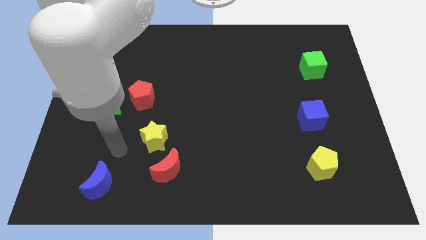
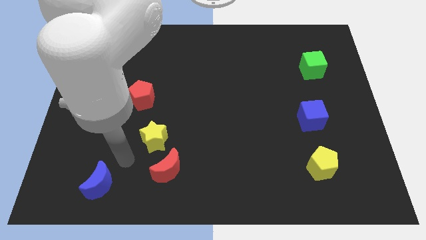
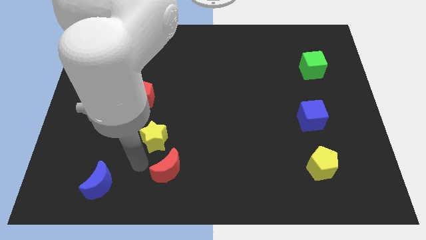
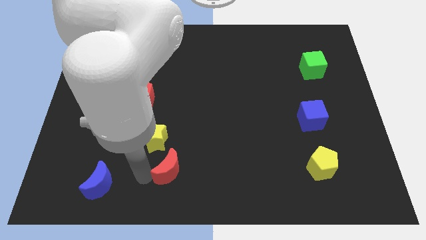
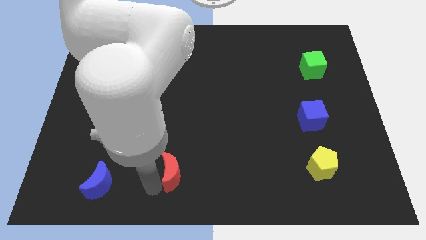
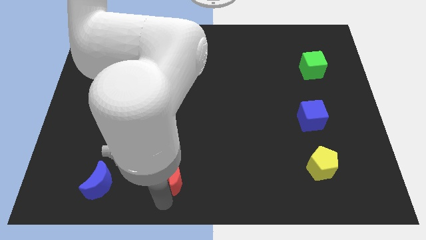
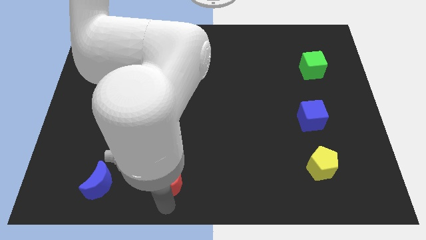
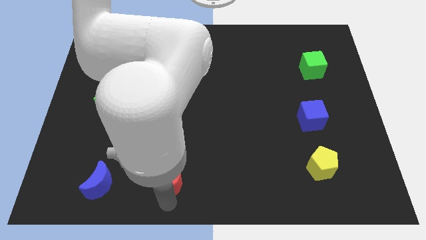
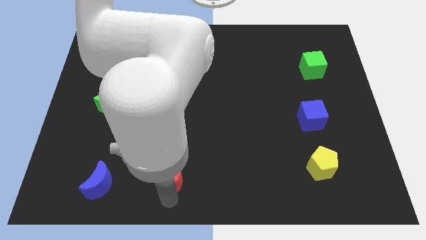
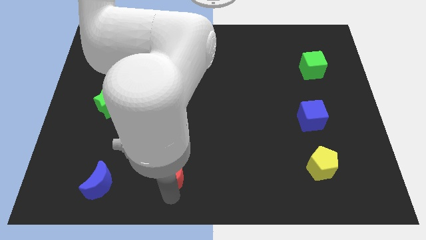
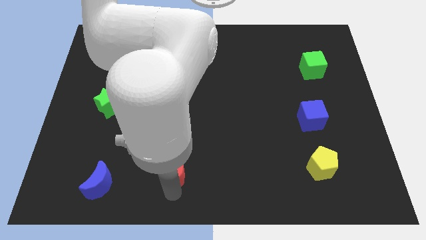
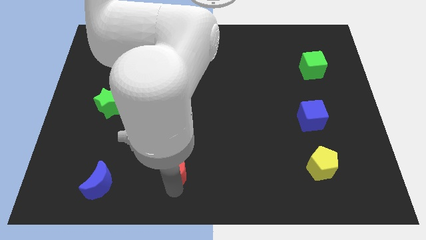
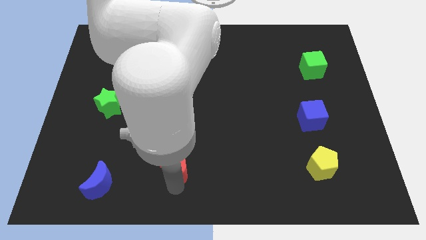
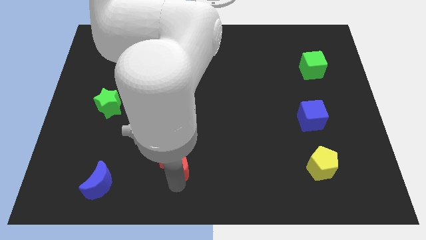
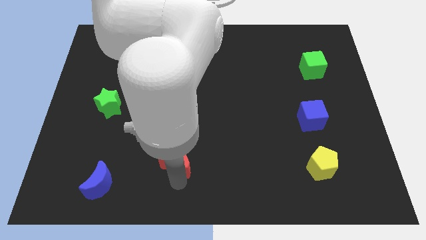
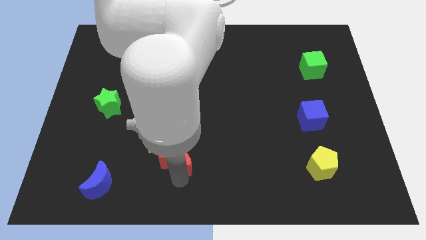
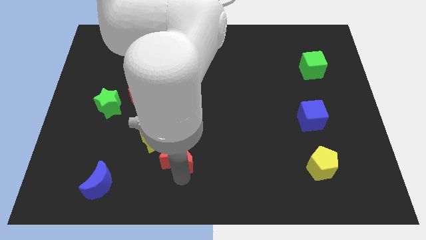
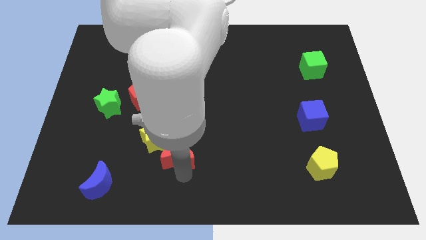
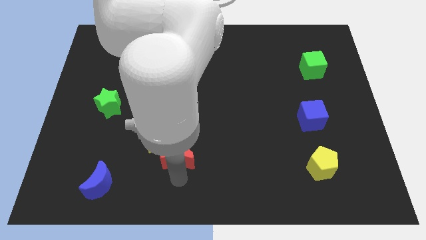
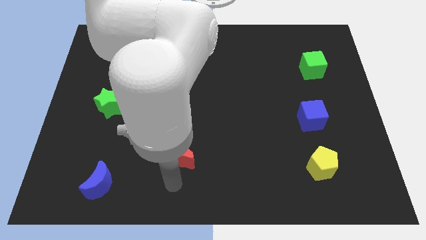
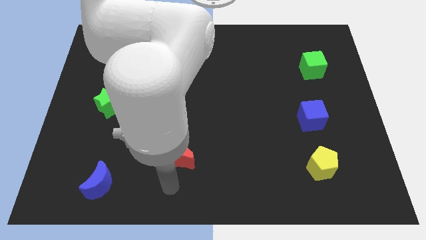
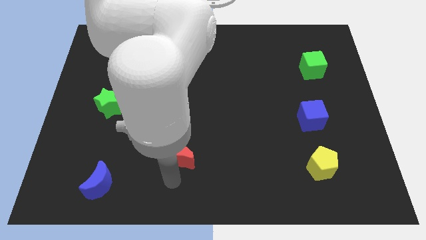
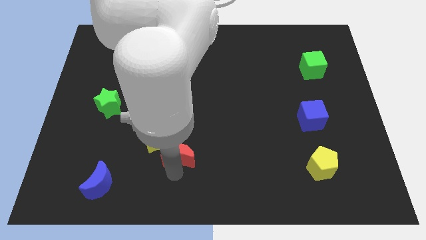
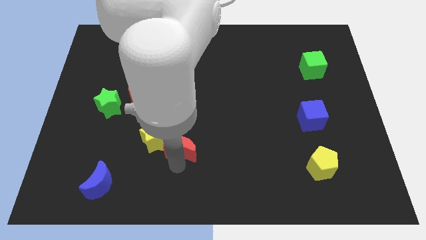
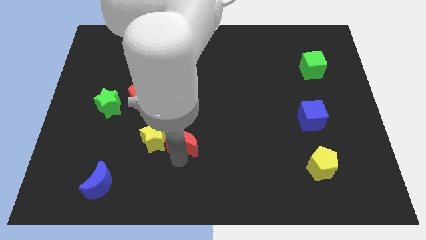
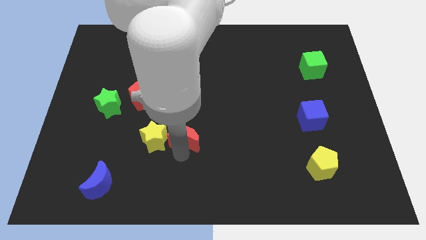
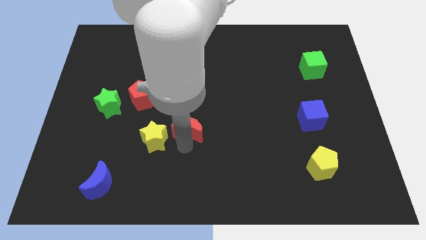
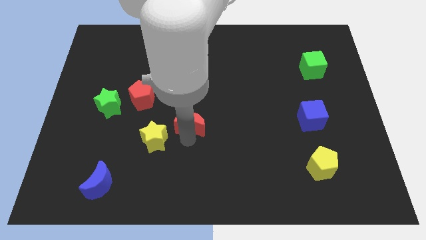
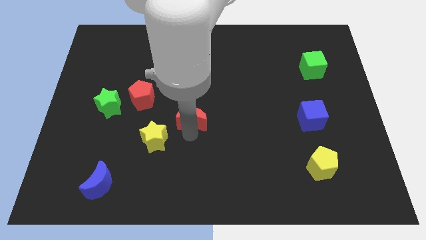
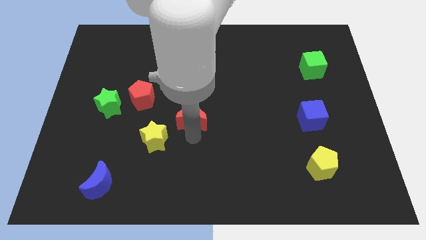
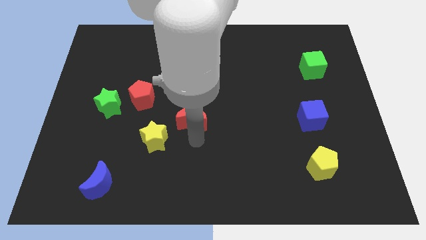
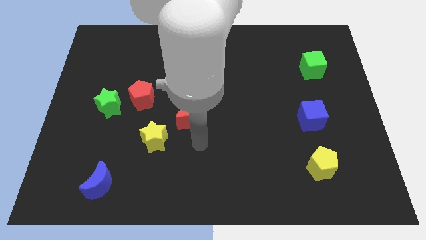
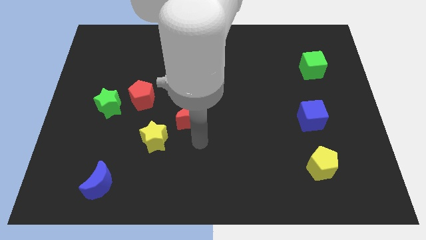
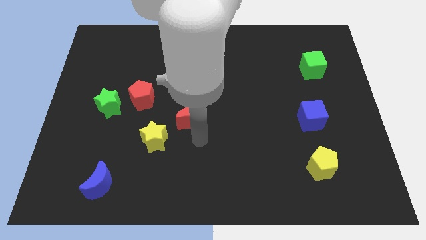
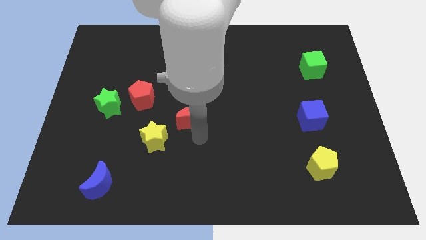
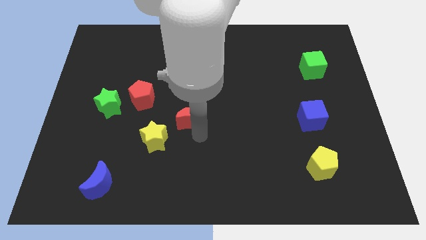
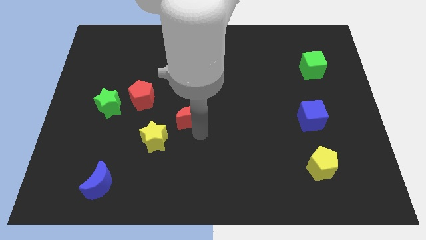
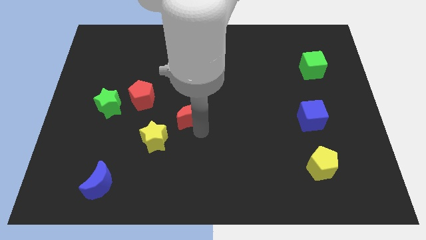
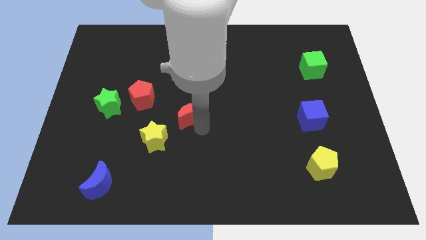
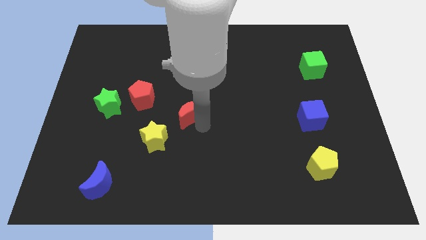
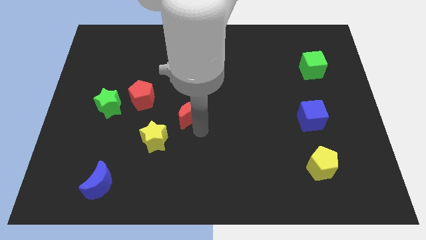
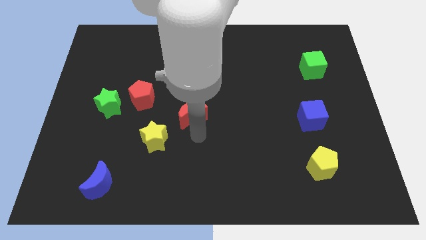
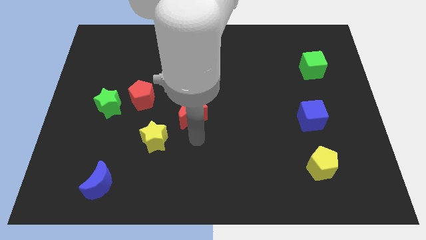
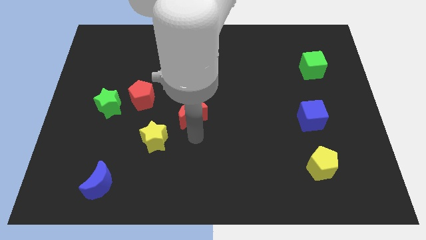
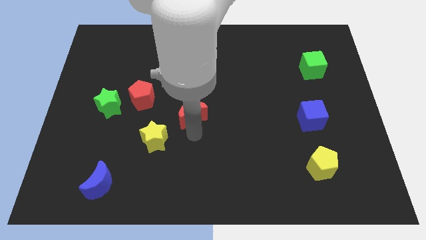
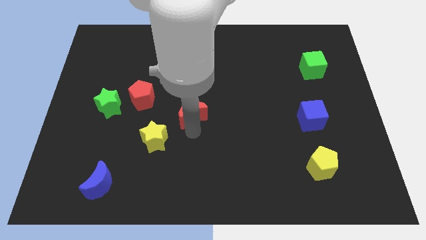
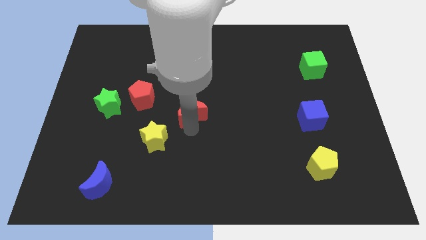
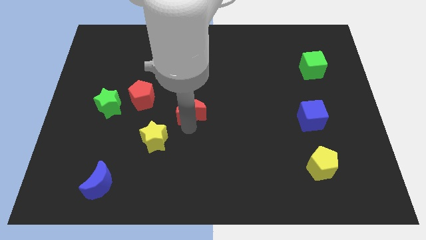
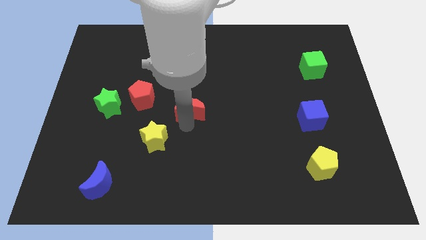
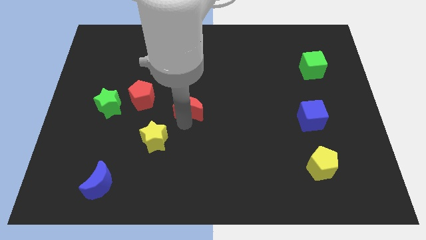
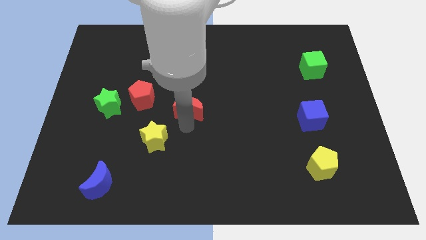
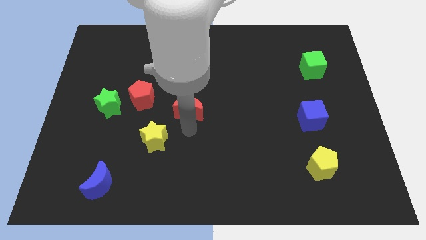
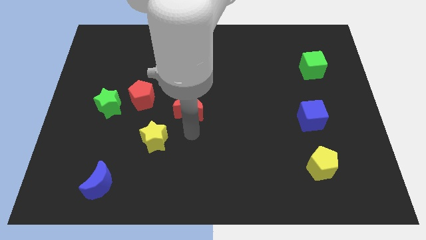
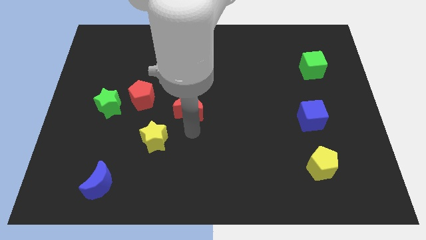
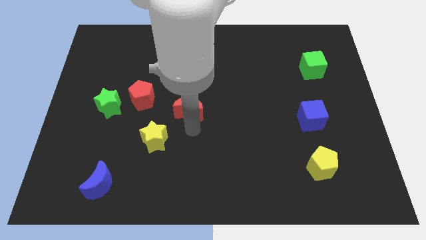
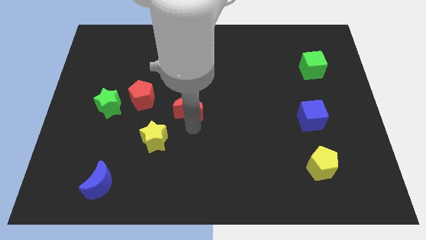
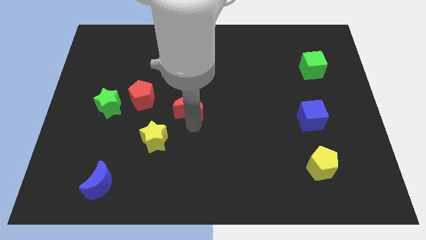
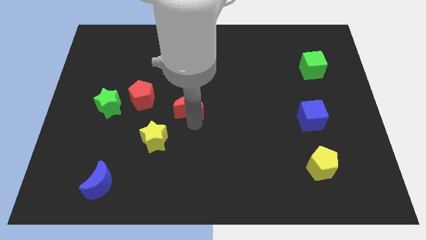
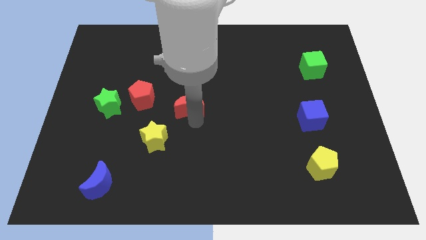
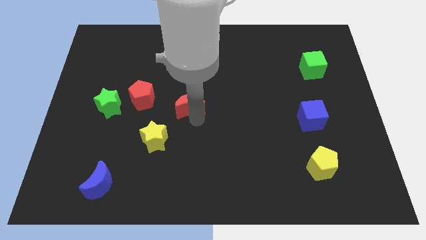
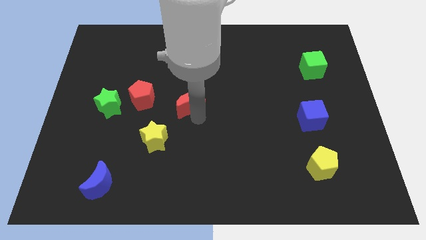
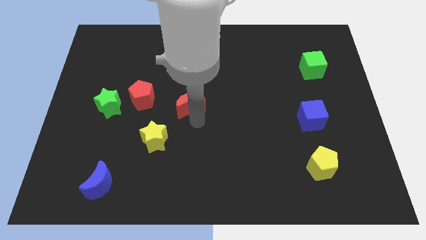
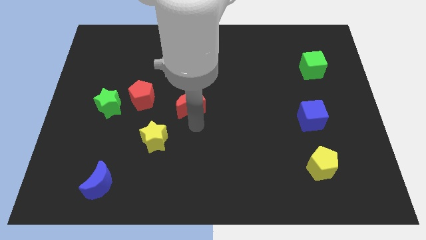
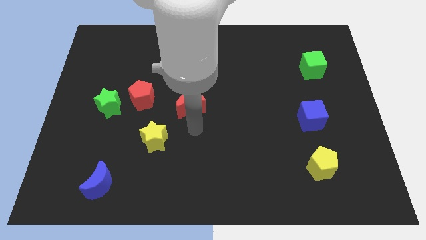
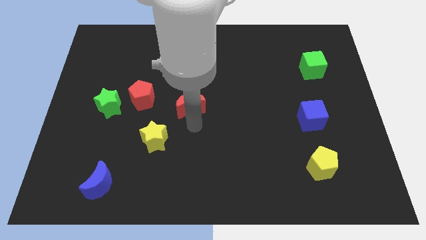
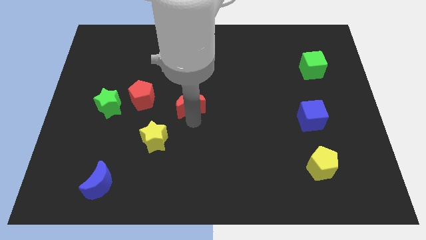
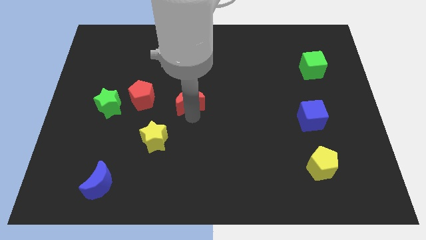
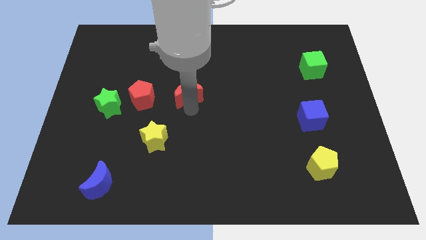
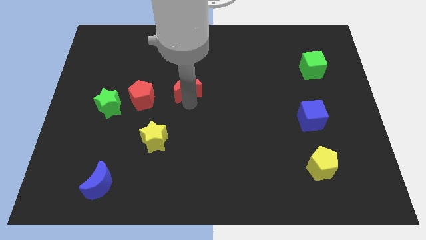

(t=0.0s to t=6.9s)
move the red moon up

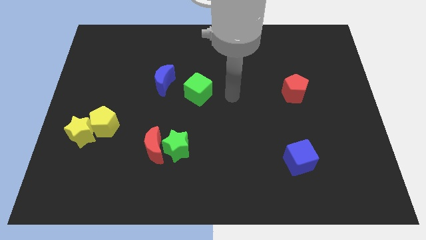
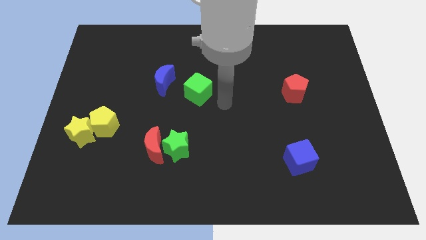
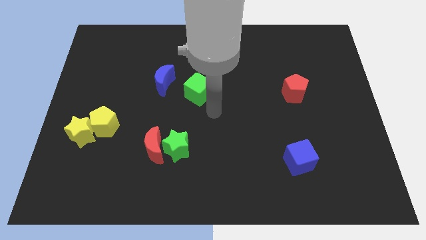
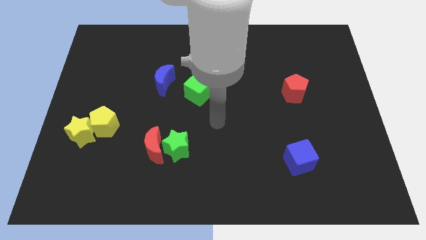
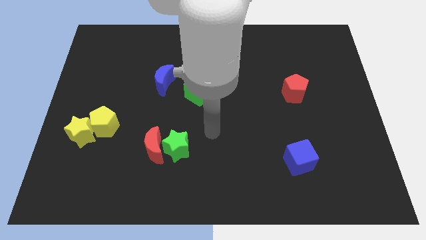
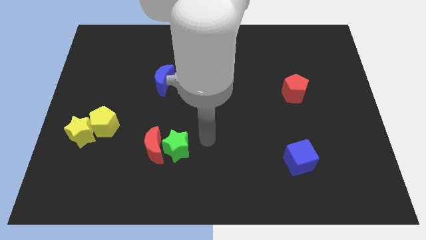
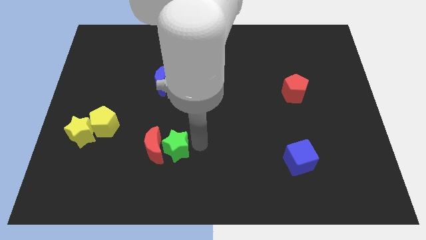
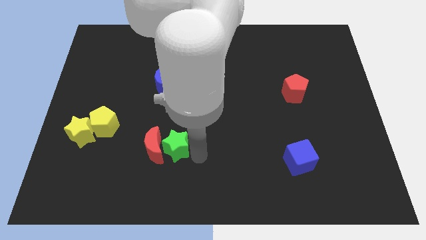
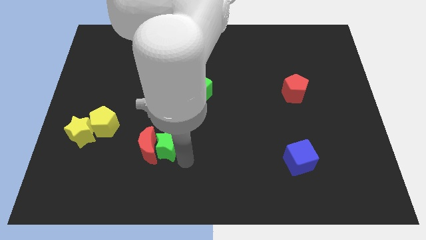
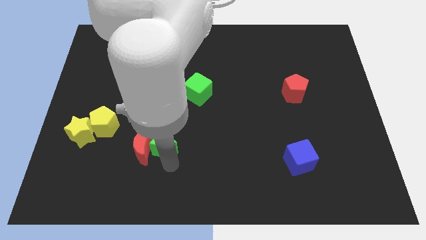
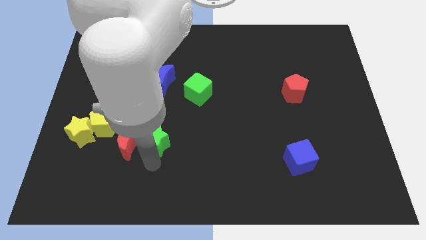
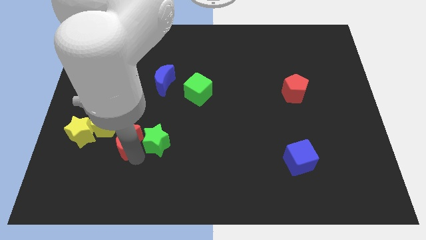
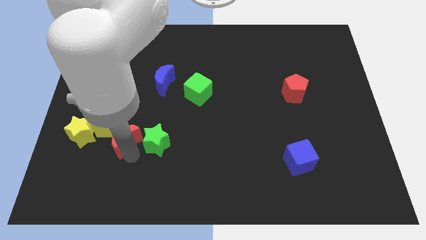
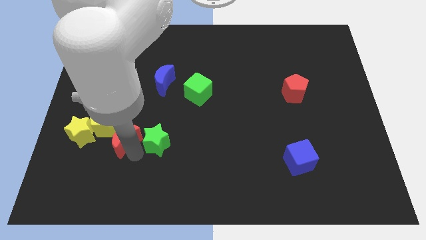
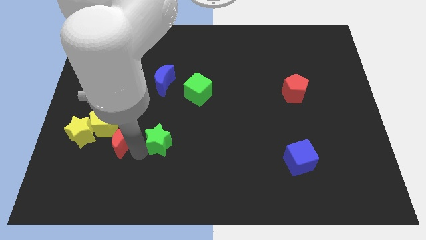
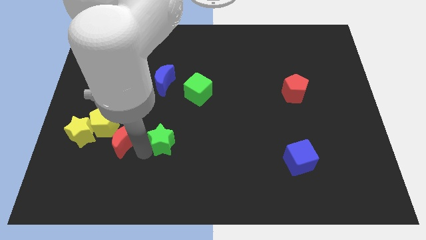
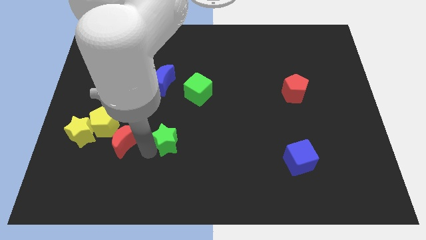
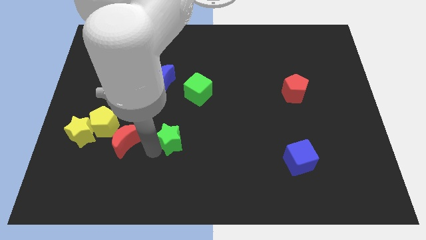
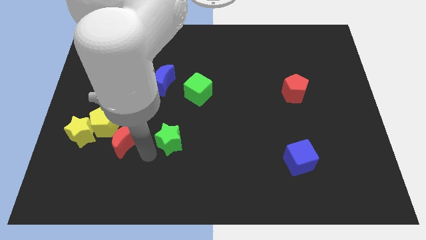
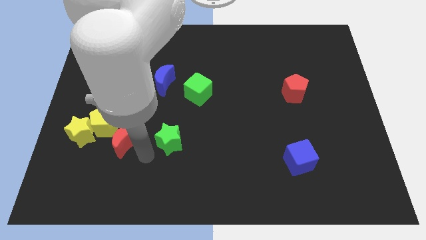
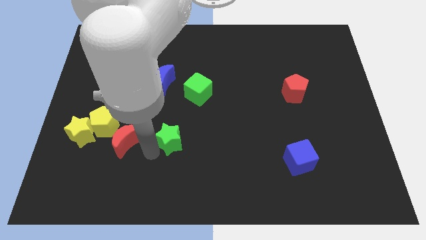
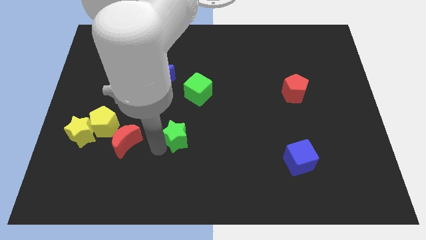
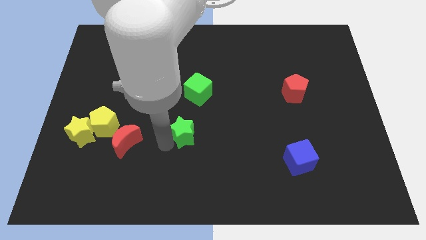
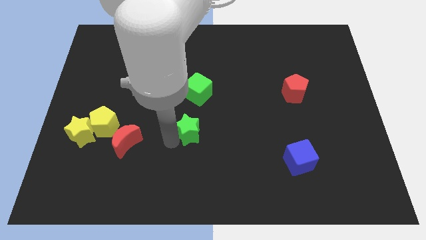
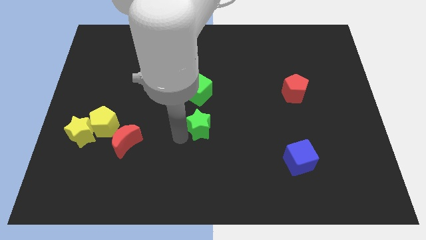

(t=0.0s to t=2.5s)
move the green star up and to the right diagonally slightly
